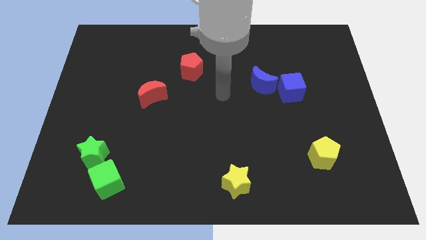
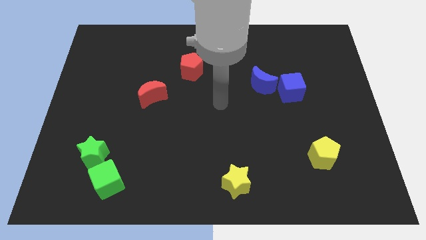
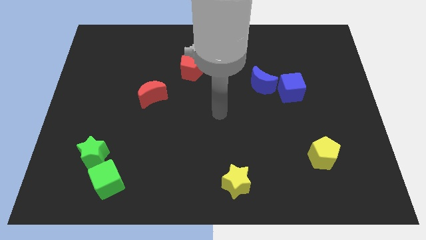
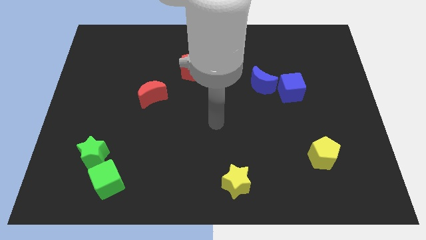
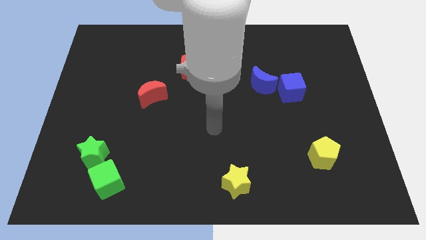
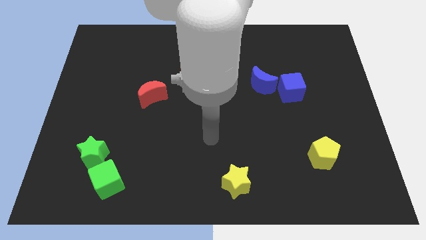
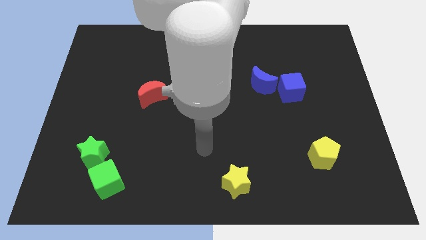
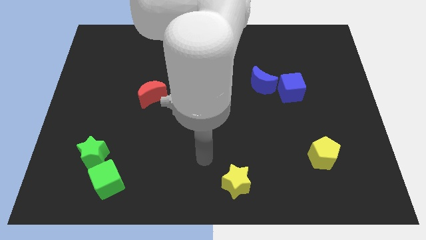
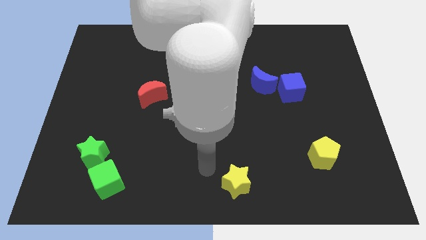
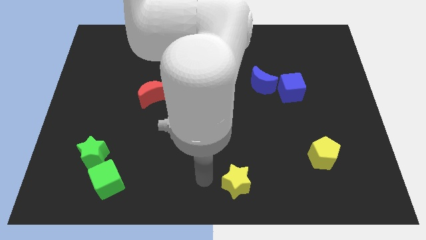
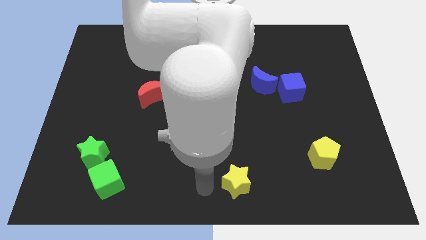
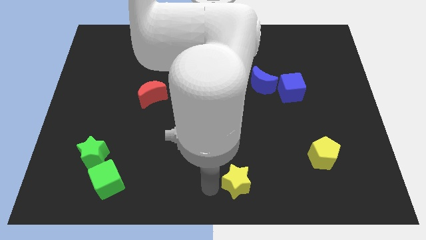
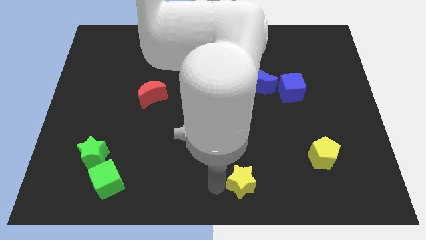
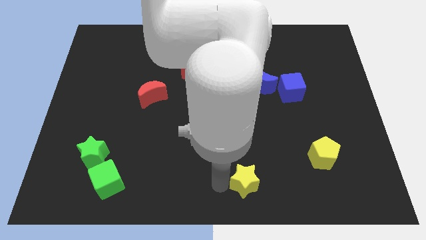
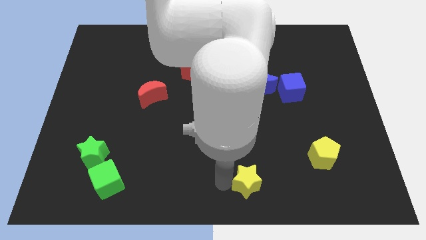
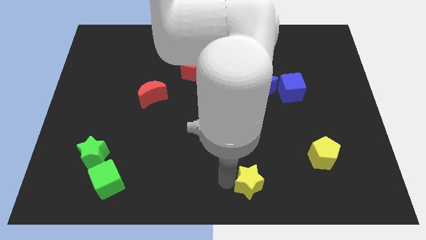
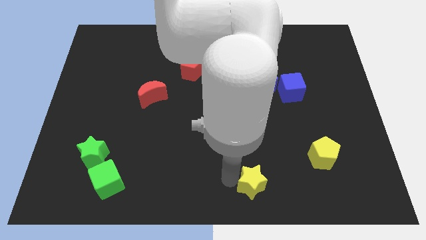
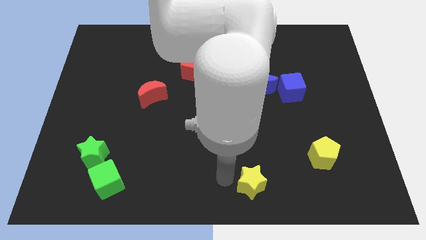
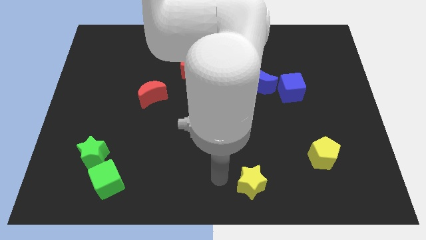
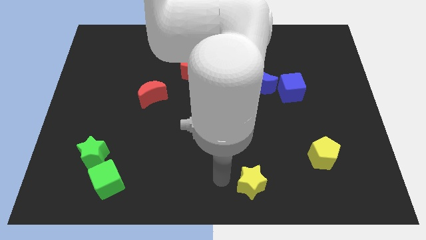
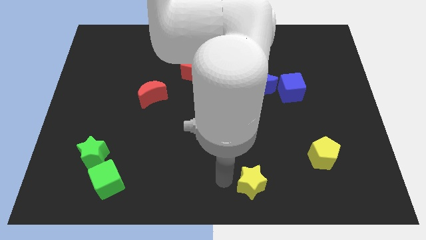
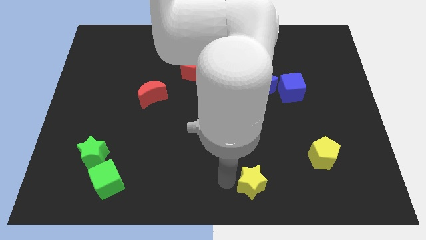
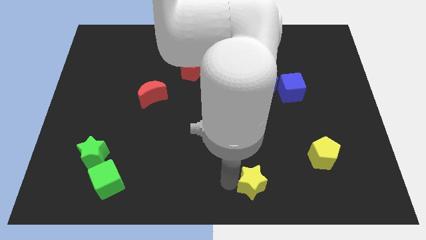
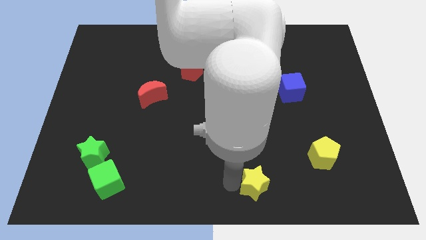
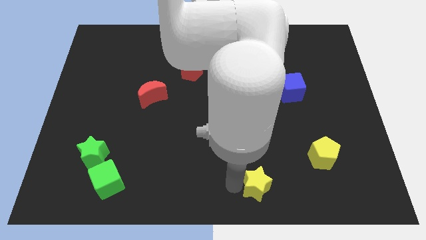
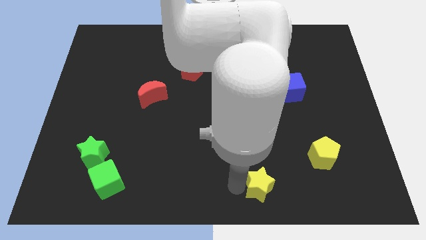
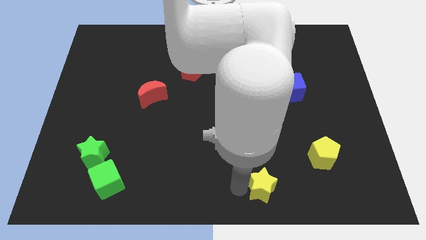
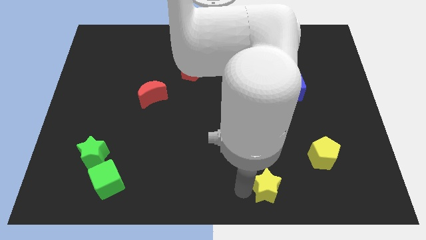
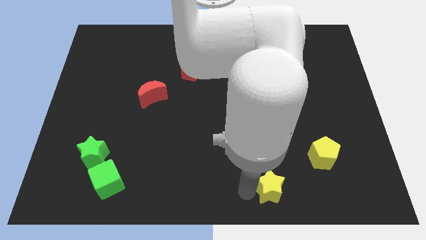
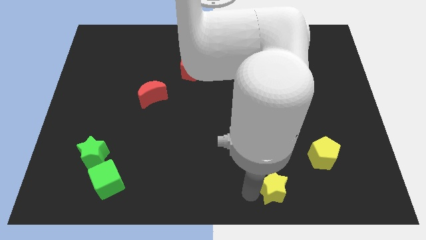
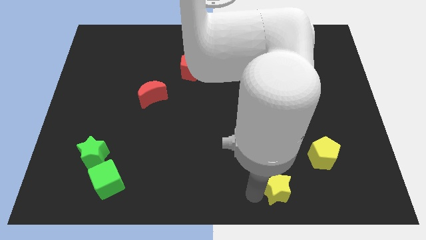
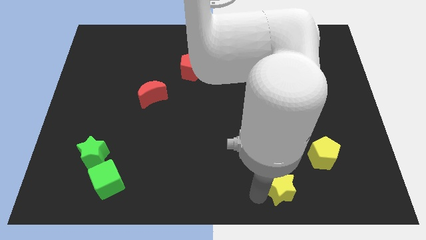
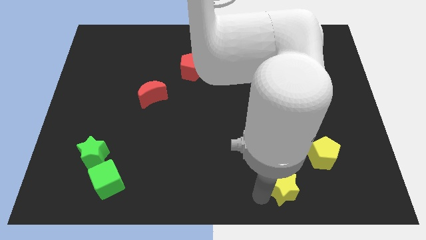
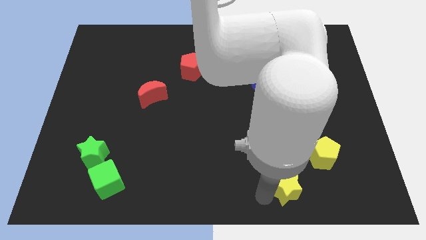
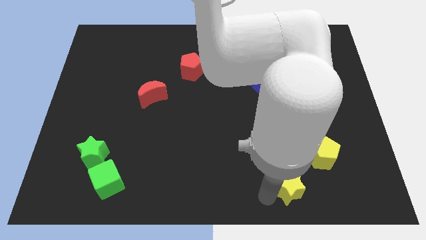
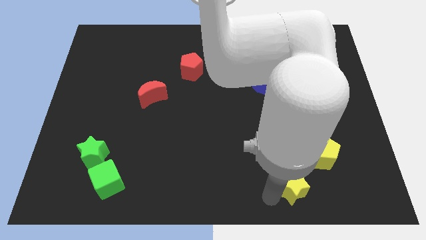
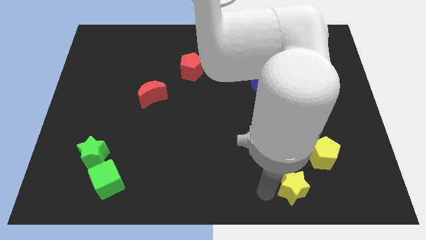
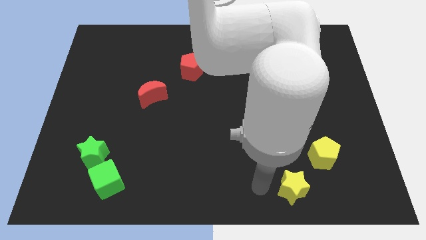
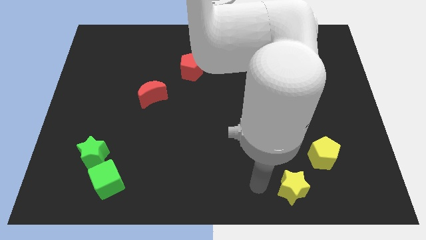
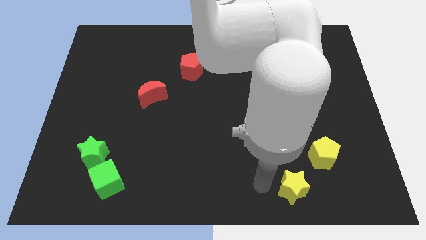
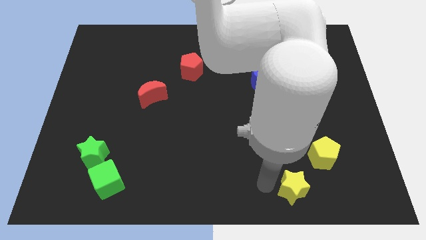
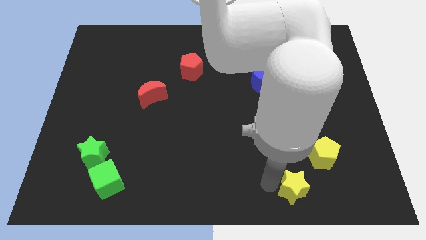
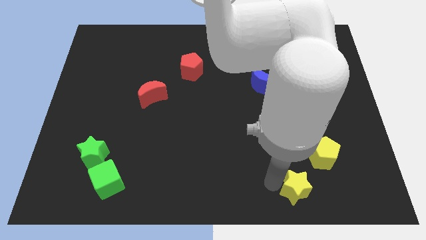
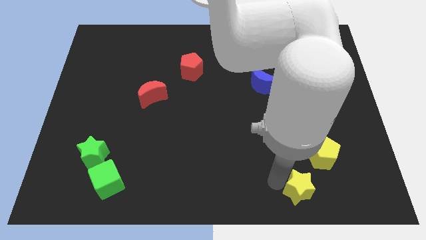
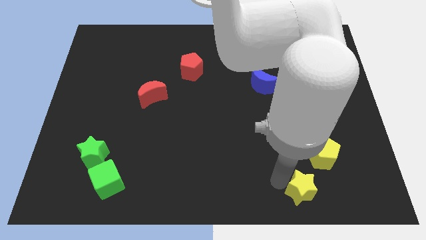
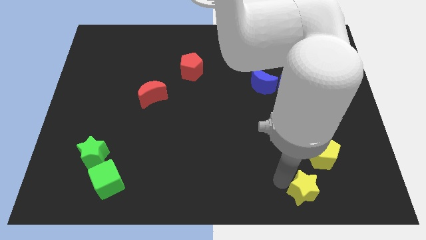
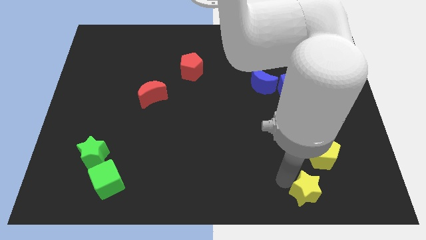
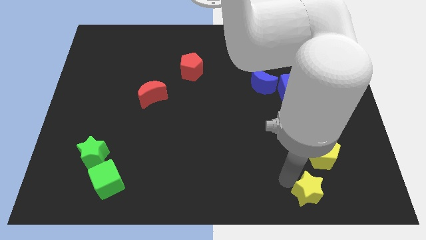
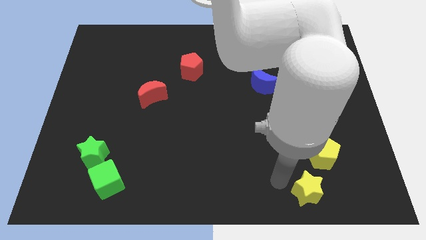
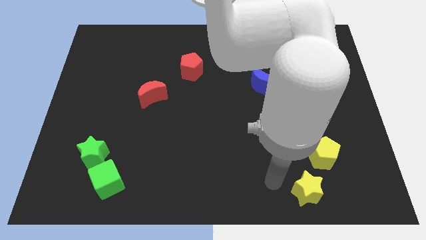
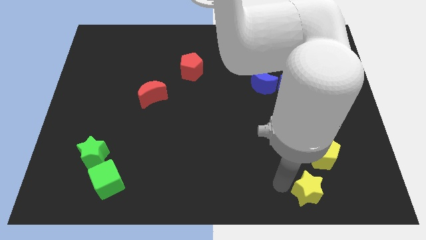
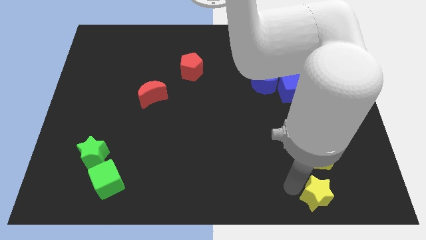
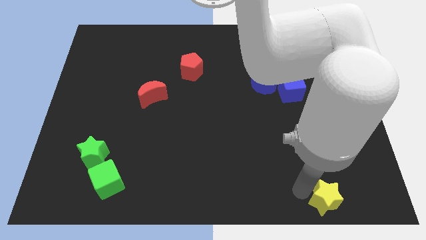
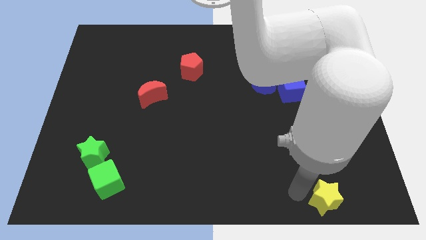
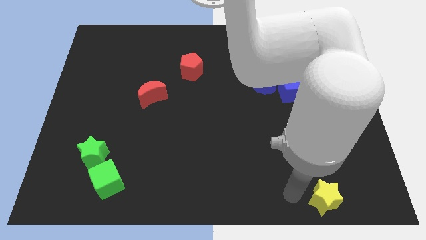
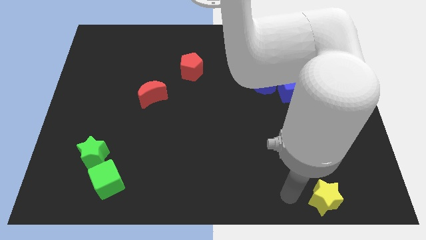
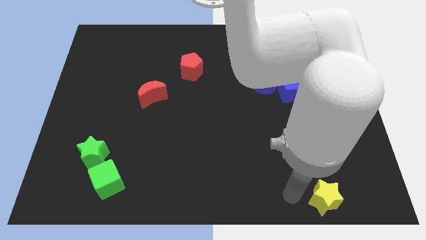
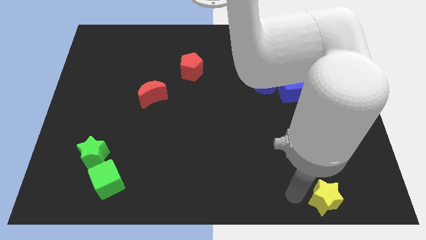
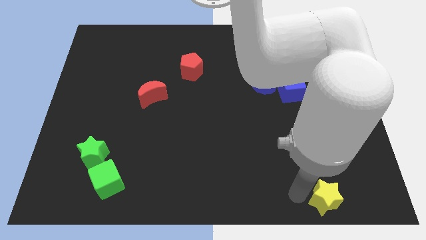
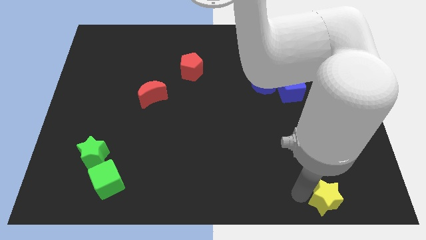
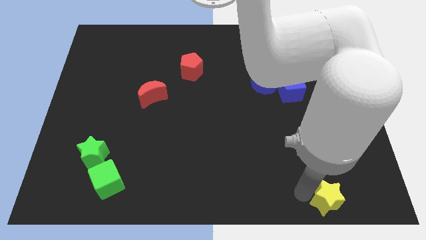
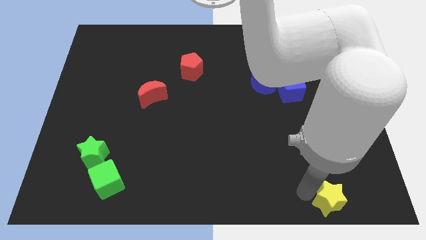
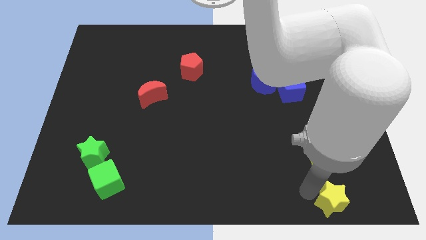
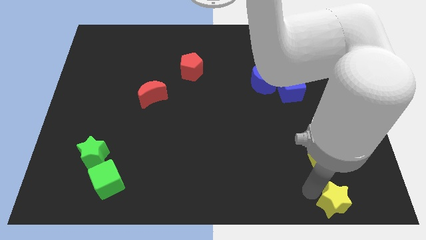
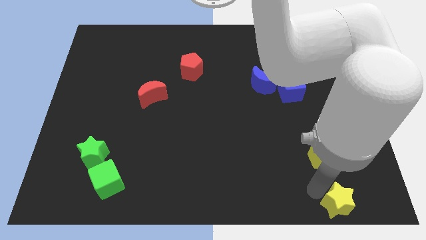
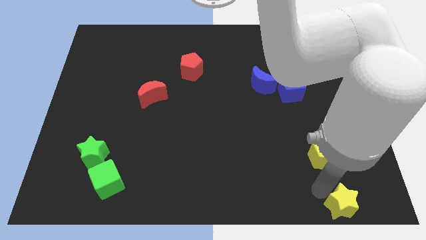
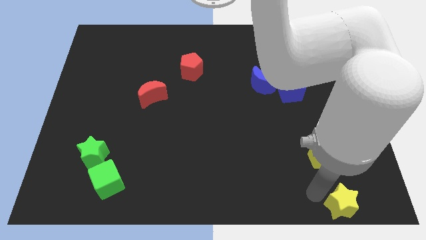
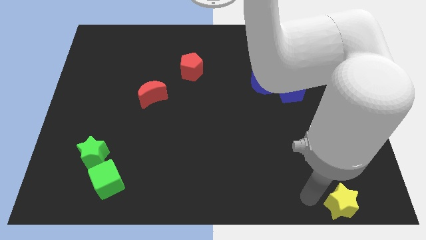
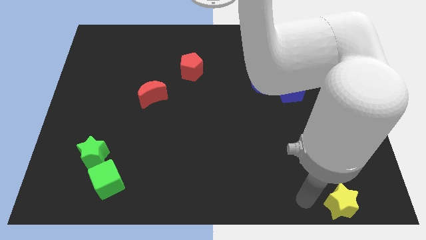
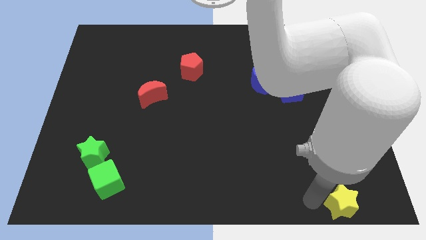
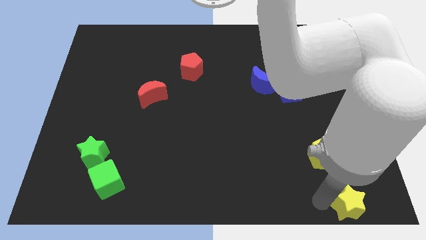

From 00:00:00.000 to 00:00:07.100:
slide the yellow star to the bottom right corner
